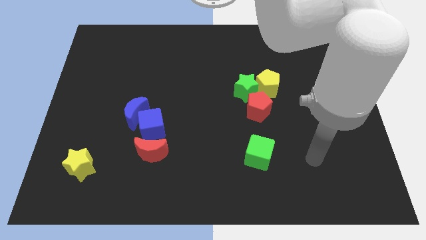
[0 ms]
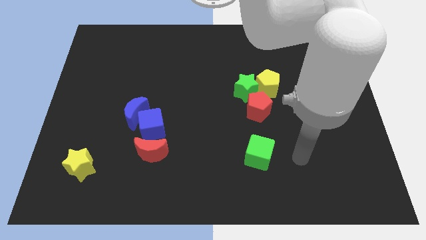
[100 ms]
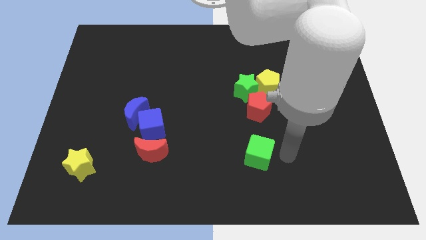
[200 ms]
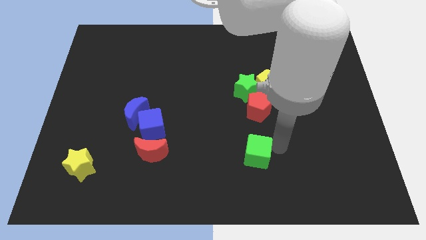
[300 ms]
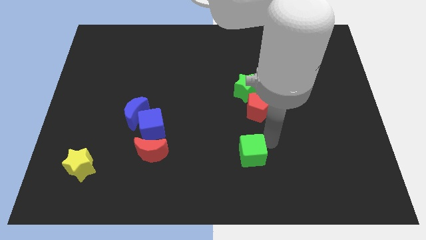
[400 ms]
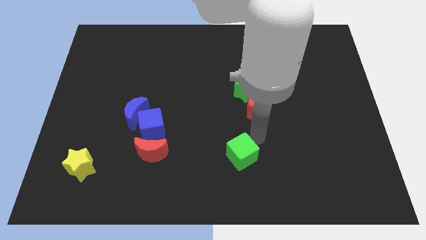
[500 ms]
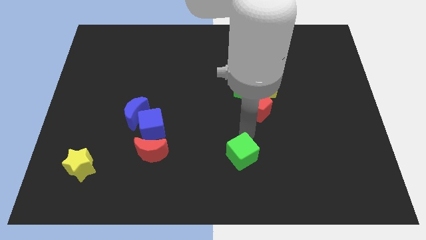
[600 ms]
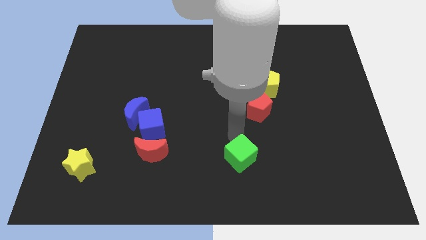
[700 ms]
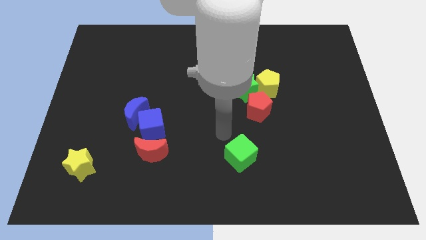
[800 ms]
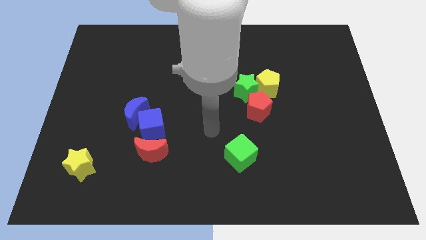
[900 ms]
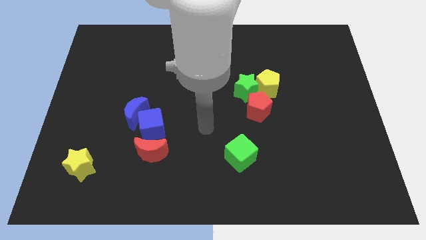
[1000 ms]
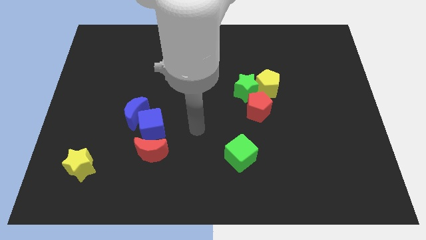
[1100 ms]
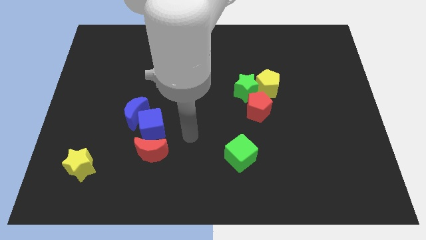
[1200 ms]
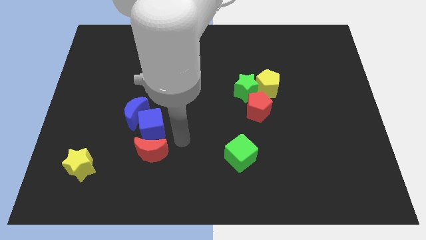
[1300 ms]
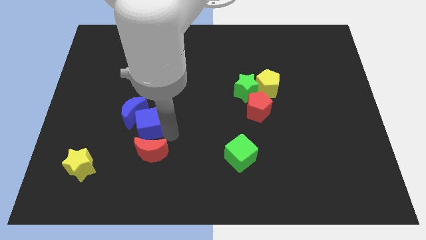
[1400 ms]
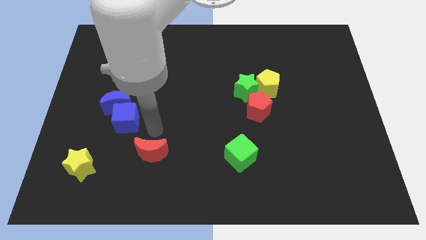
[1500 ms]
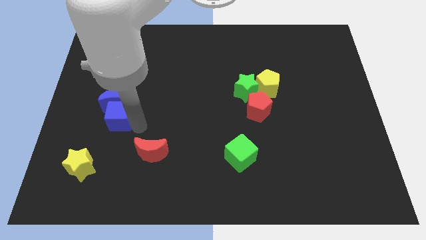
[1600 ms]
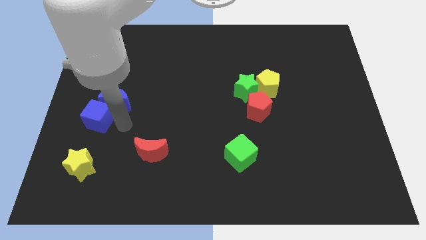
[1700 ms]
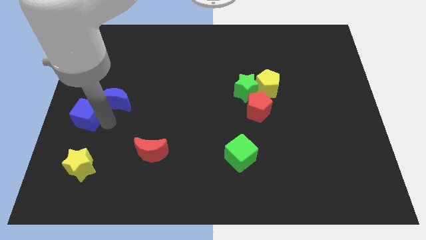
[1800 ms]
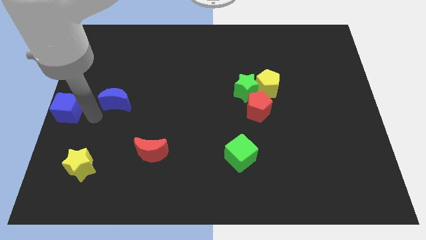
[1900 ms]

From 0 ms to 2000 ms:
move the blue moon away from the blue cube

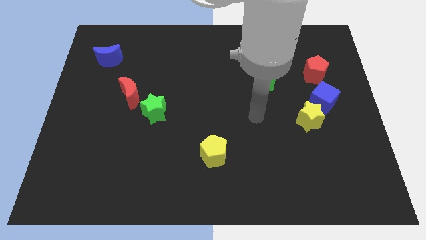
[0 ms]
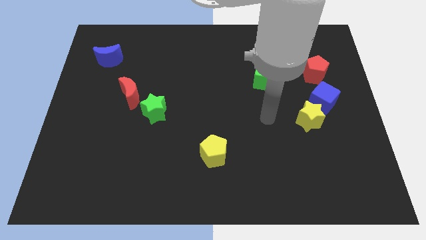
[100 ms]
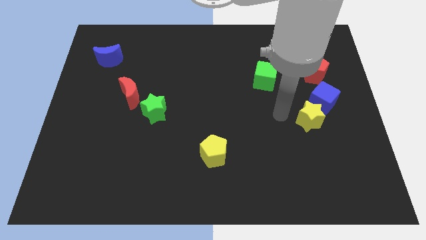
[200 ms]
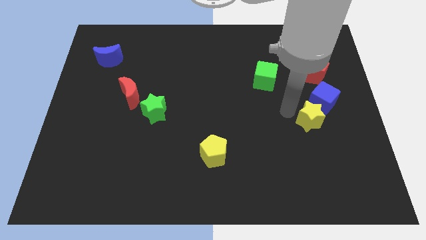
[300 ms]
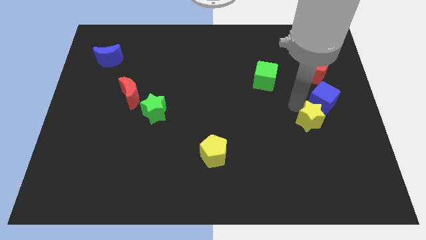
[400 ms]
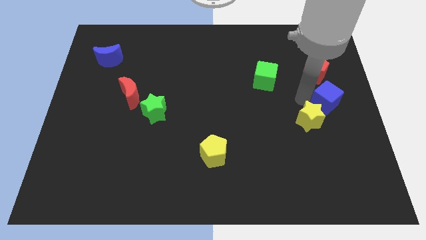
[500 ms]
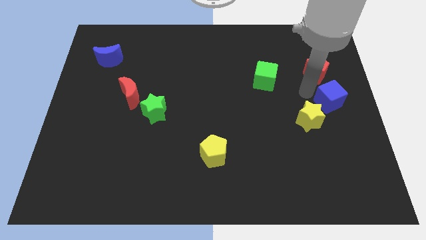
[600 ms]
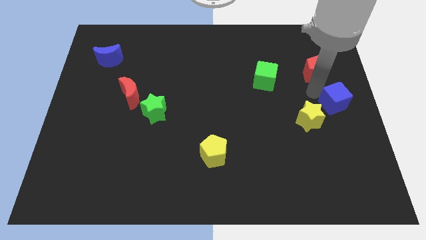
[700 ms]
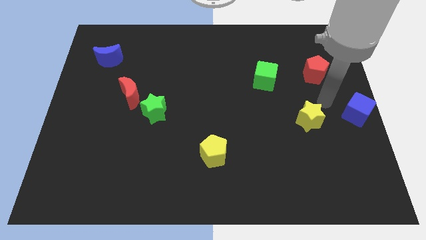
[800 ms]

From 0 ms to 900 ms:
pull the yellow star apart from the blue cube

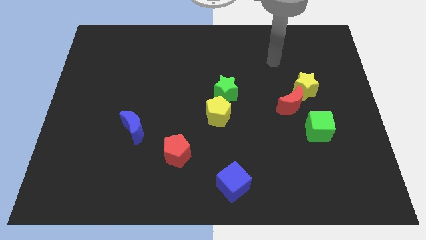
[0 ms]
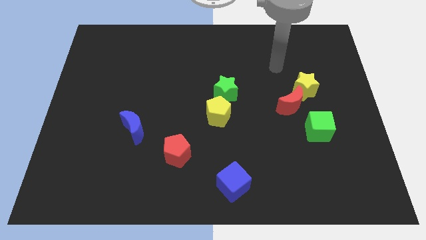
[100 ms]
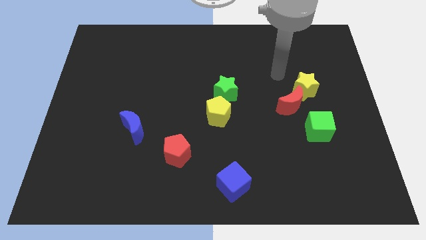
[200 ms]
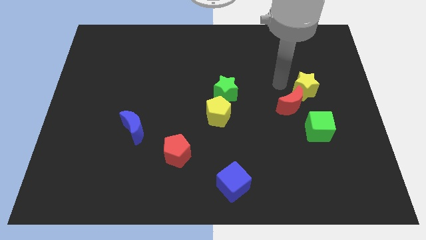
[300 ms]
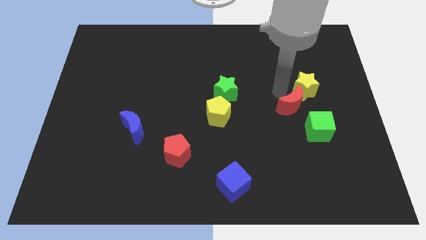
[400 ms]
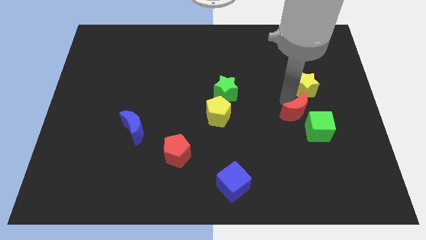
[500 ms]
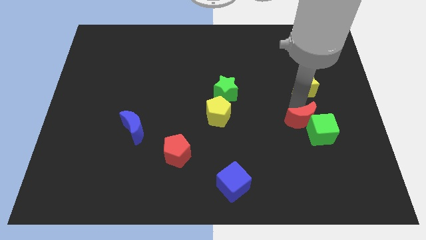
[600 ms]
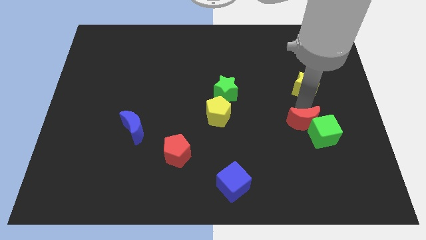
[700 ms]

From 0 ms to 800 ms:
separate the yellow star from the red moon

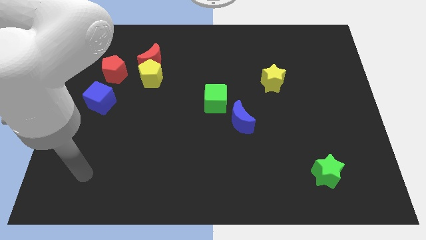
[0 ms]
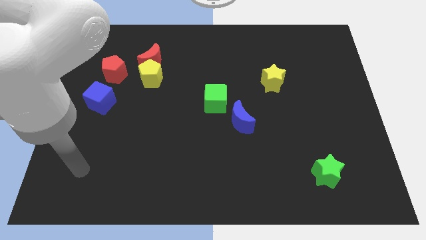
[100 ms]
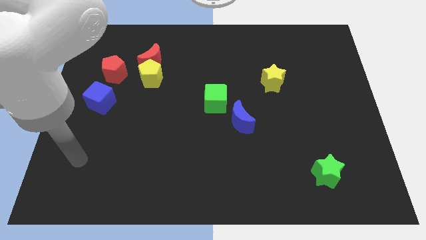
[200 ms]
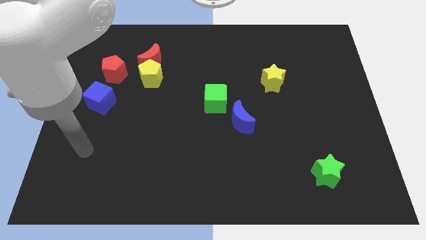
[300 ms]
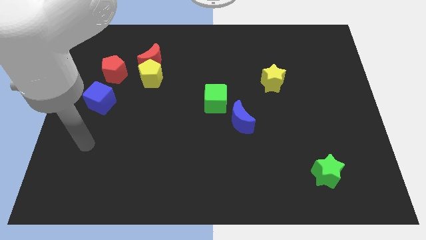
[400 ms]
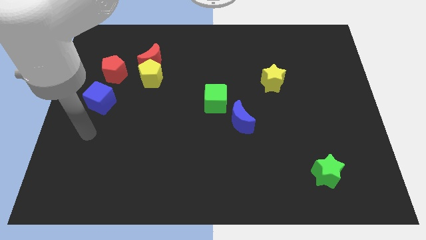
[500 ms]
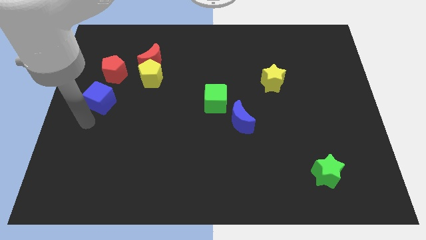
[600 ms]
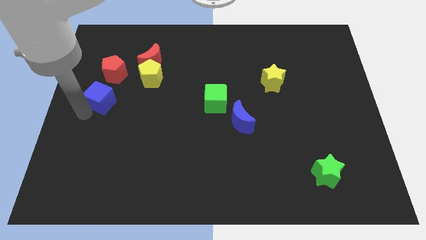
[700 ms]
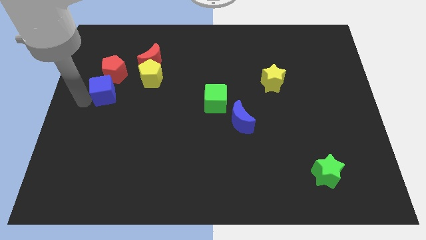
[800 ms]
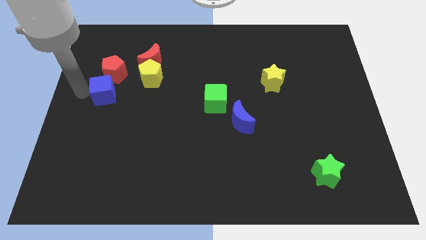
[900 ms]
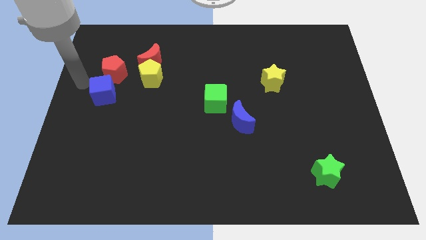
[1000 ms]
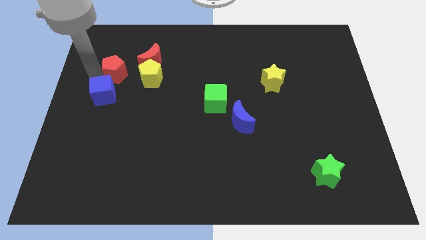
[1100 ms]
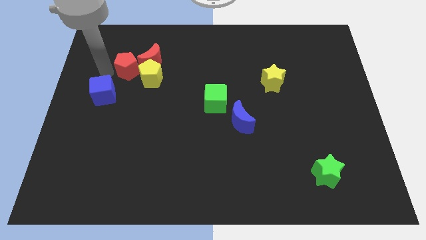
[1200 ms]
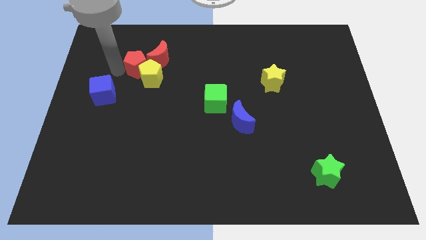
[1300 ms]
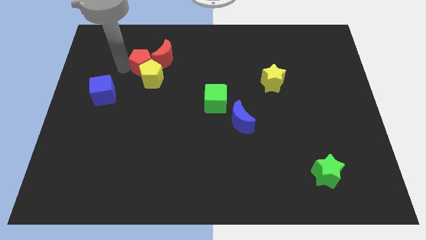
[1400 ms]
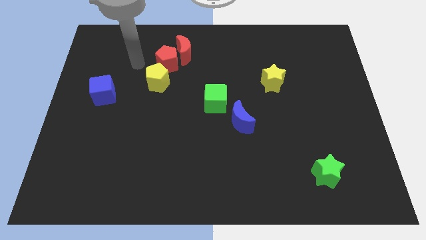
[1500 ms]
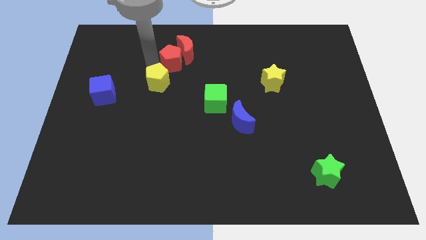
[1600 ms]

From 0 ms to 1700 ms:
separate the yellow pentagon from the red moon and red pentagon

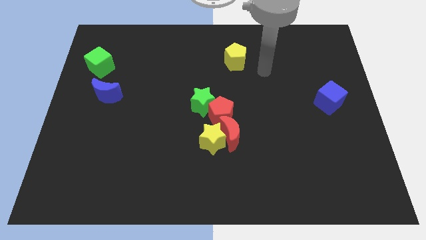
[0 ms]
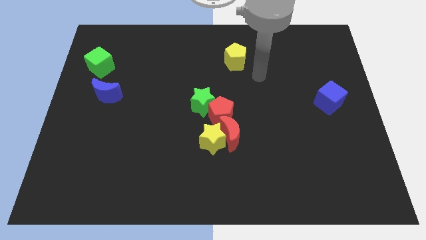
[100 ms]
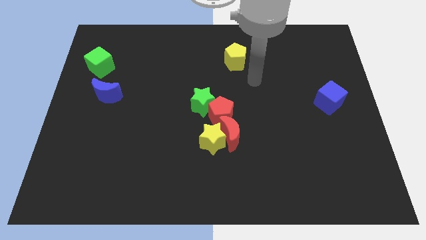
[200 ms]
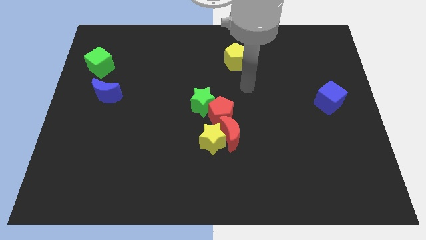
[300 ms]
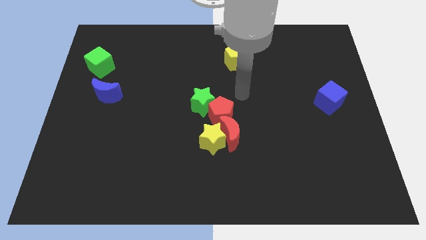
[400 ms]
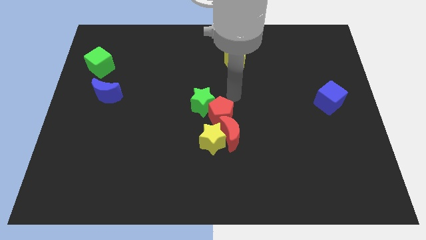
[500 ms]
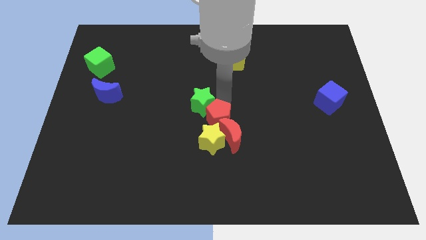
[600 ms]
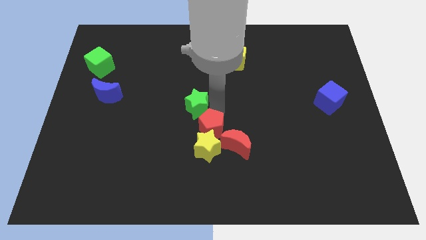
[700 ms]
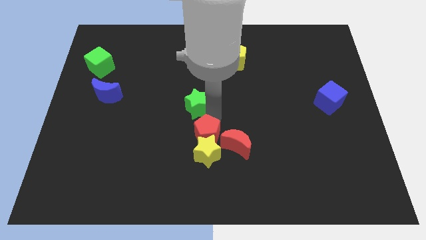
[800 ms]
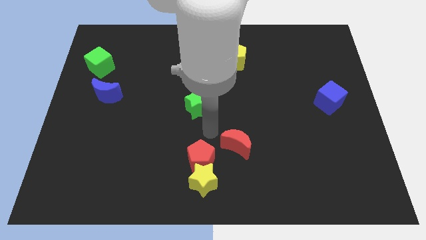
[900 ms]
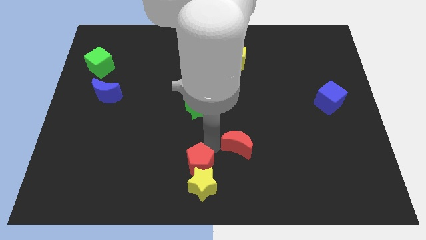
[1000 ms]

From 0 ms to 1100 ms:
move the red moon away from the yellow star and red pentagon

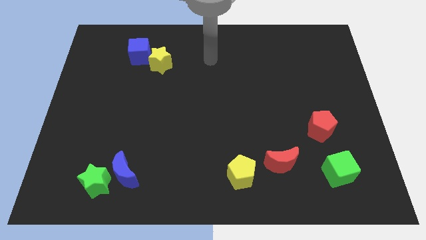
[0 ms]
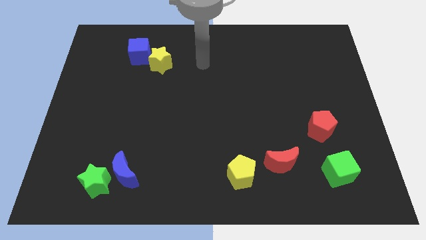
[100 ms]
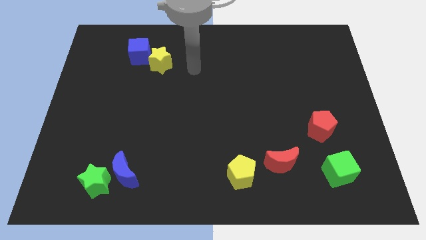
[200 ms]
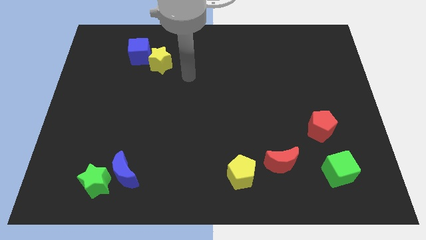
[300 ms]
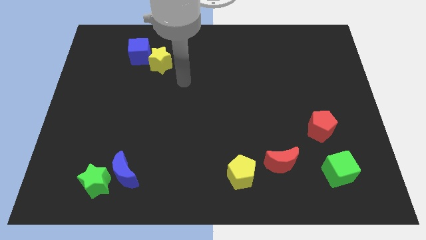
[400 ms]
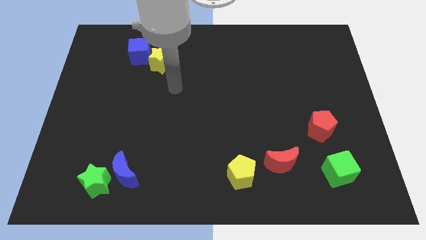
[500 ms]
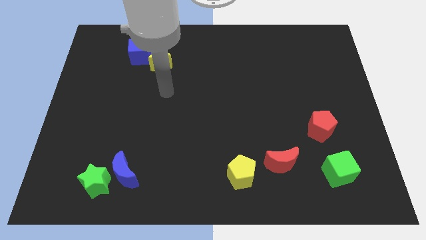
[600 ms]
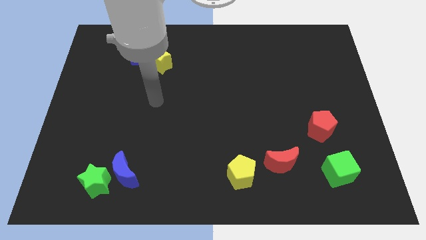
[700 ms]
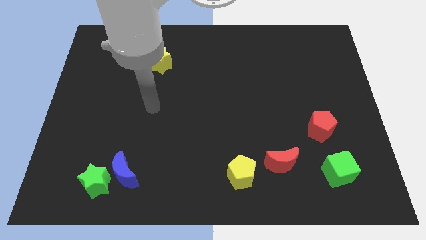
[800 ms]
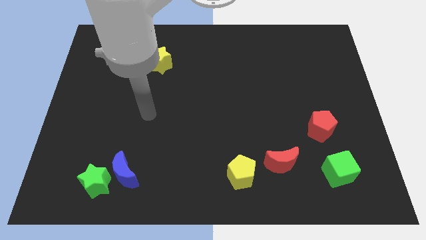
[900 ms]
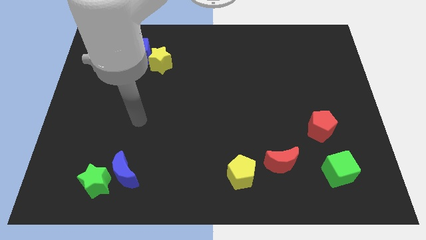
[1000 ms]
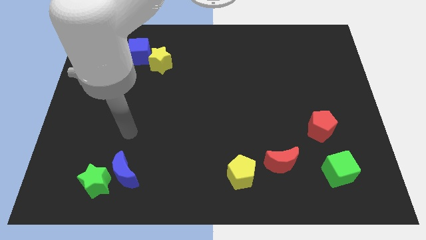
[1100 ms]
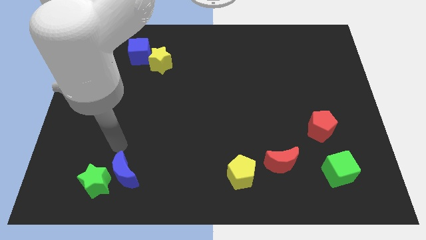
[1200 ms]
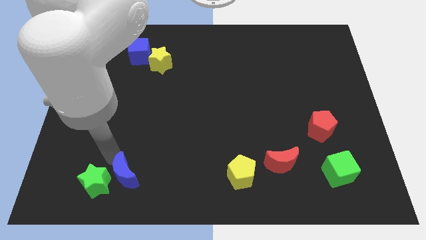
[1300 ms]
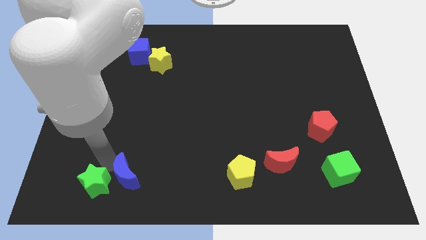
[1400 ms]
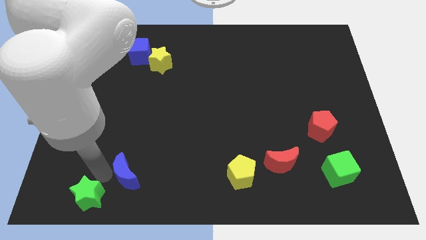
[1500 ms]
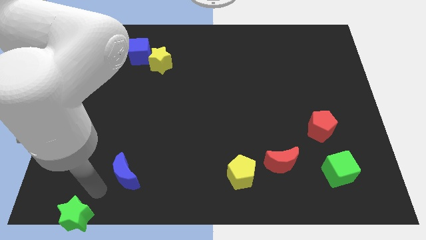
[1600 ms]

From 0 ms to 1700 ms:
move the blue moon away from the green star

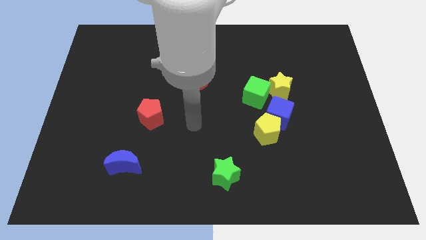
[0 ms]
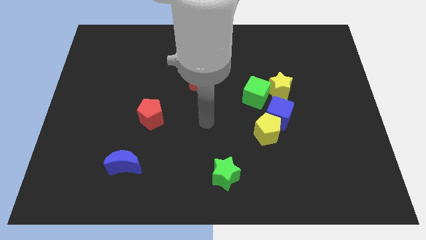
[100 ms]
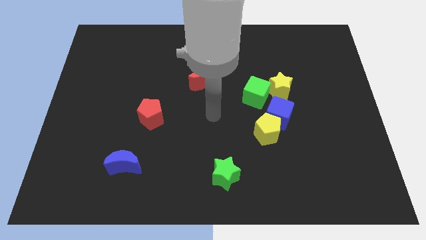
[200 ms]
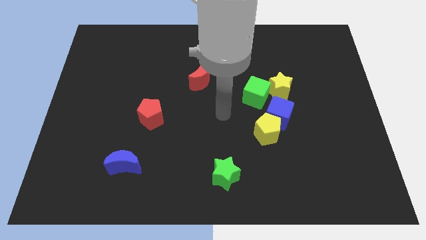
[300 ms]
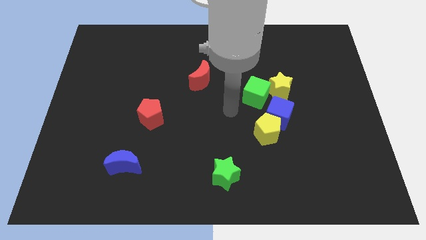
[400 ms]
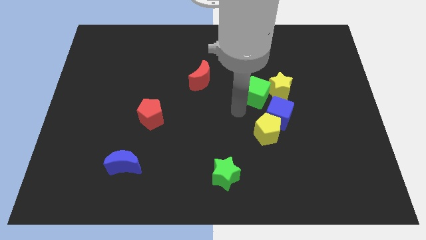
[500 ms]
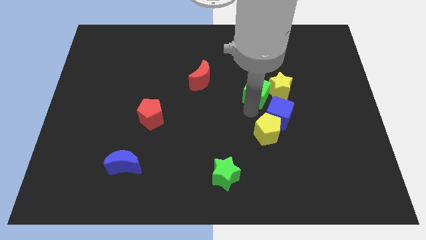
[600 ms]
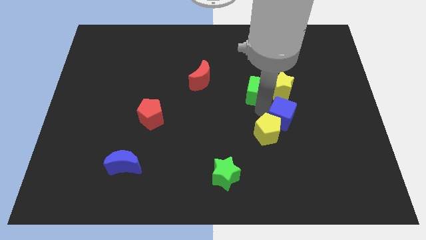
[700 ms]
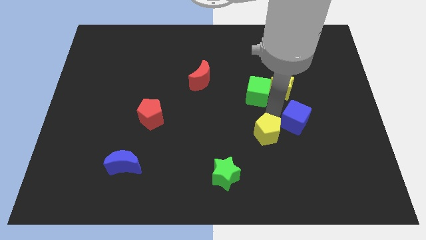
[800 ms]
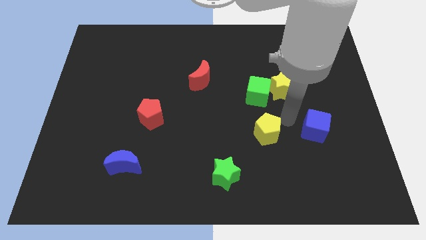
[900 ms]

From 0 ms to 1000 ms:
separate the yellow pentagon from the blue cube

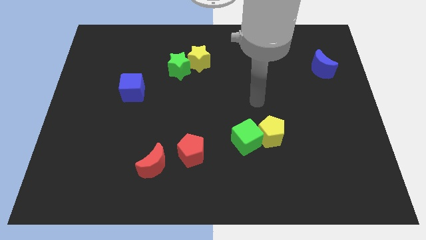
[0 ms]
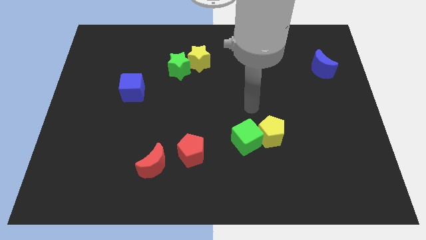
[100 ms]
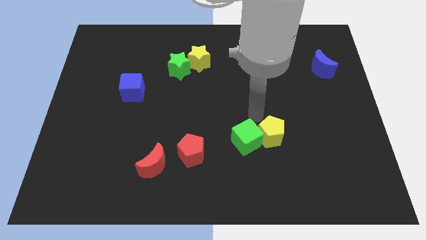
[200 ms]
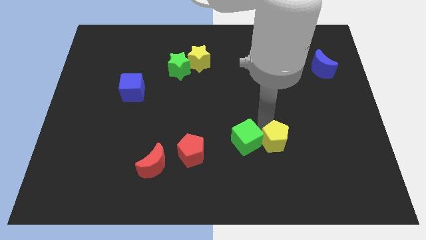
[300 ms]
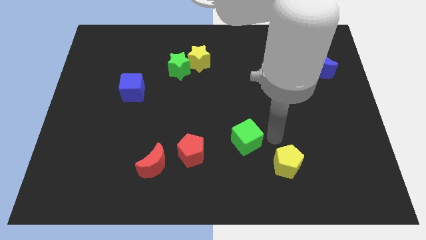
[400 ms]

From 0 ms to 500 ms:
move the green cube away from the yellow pentagon
